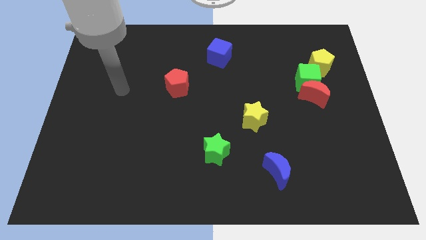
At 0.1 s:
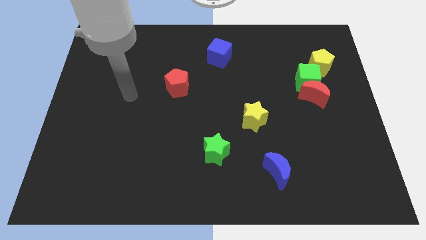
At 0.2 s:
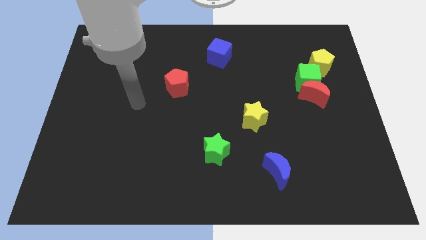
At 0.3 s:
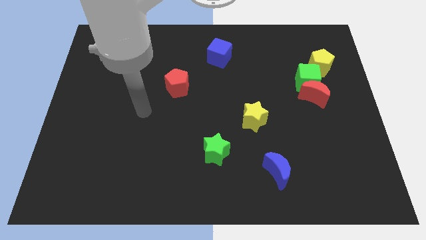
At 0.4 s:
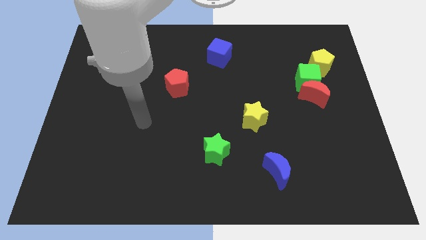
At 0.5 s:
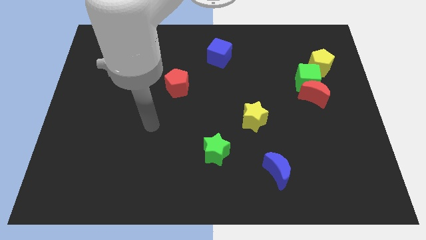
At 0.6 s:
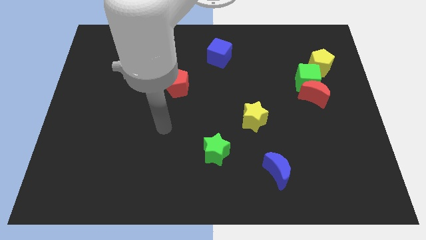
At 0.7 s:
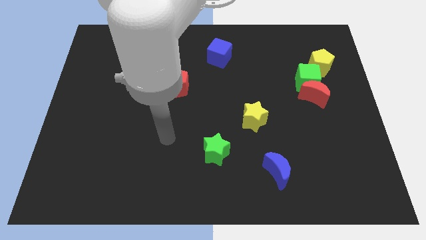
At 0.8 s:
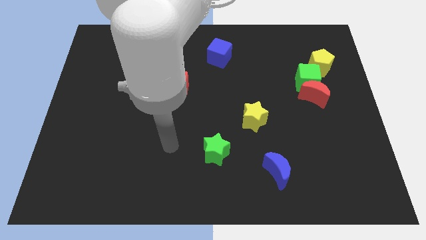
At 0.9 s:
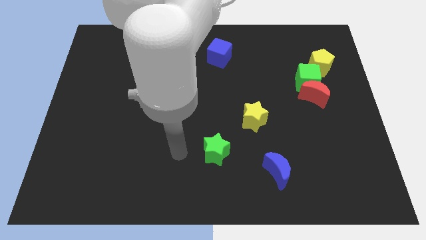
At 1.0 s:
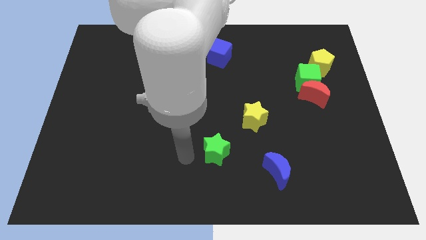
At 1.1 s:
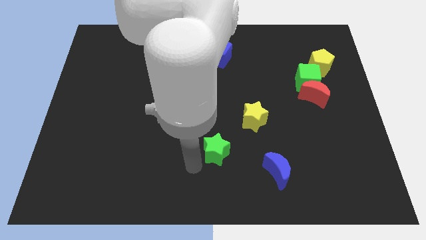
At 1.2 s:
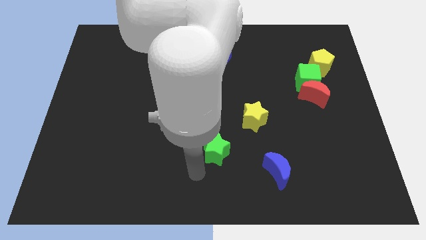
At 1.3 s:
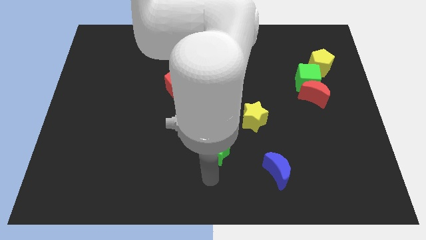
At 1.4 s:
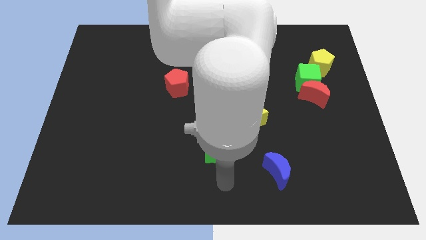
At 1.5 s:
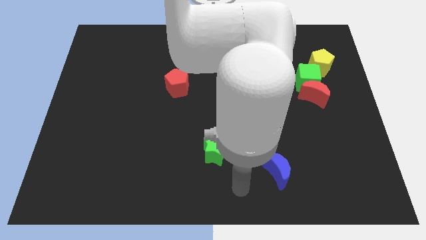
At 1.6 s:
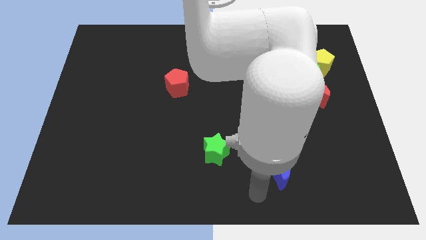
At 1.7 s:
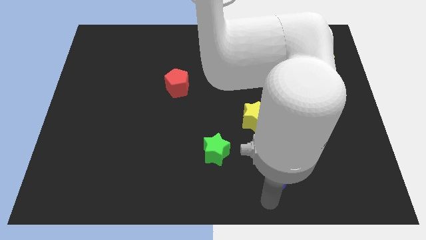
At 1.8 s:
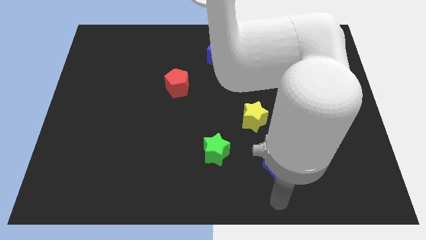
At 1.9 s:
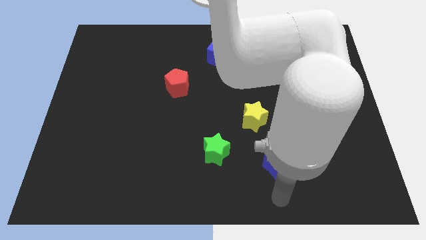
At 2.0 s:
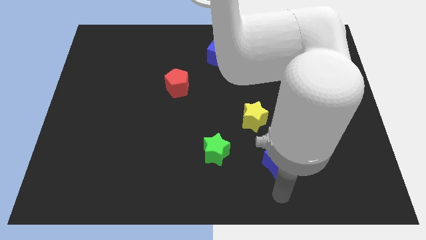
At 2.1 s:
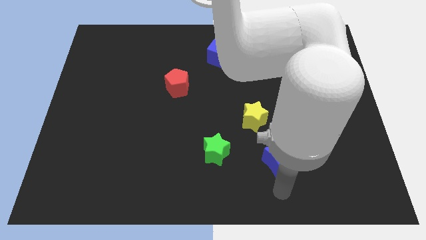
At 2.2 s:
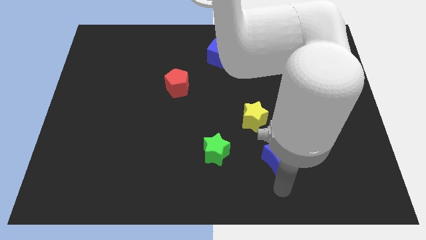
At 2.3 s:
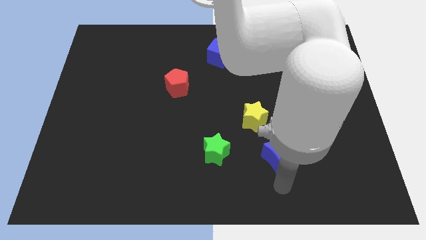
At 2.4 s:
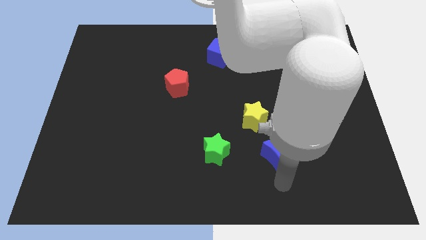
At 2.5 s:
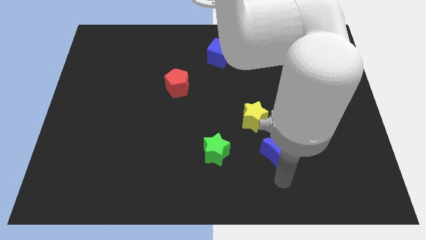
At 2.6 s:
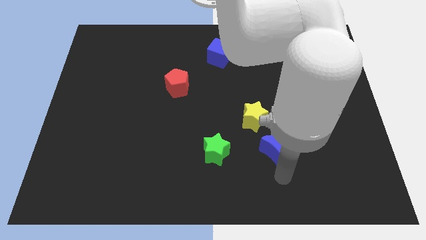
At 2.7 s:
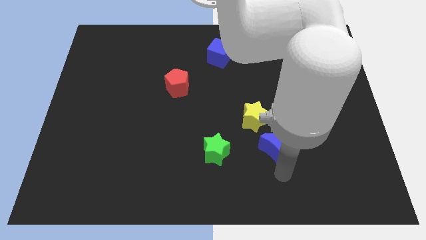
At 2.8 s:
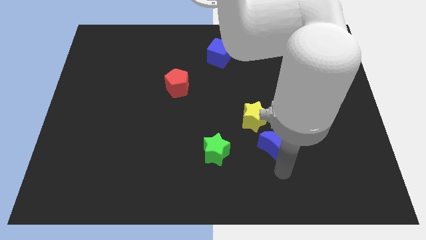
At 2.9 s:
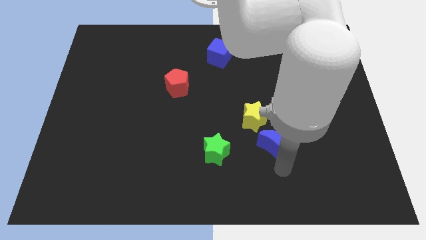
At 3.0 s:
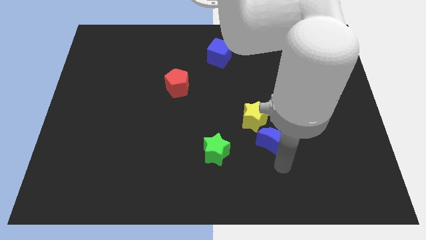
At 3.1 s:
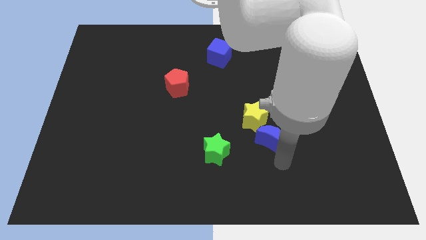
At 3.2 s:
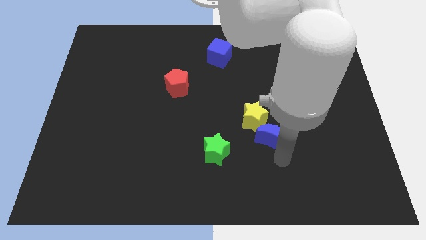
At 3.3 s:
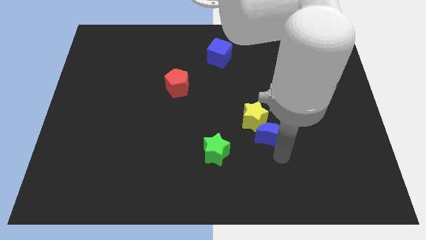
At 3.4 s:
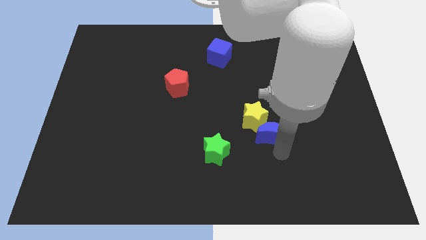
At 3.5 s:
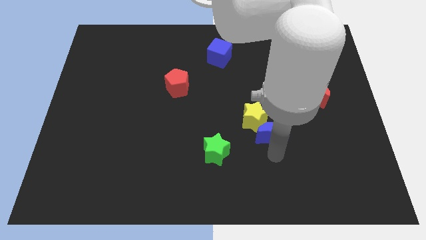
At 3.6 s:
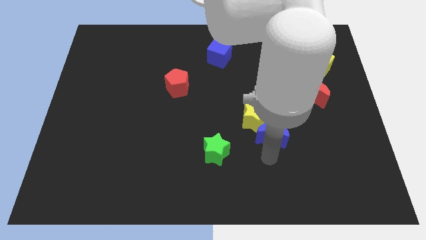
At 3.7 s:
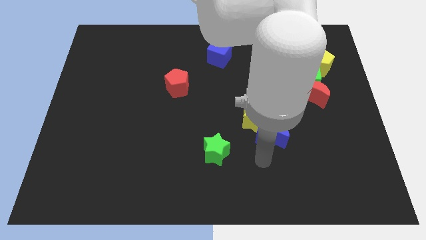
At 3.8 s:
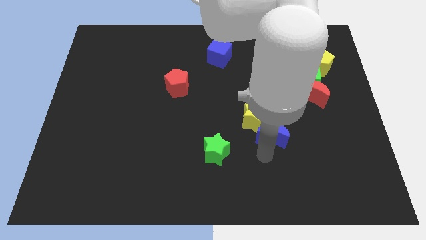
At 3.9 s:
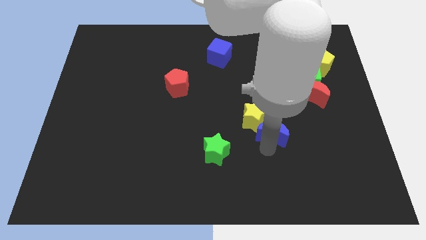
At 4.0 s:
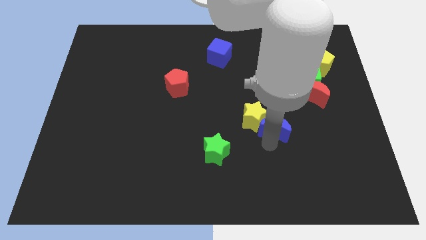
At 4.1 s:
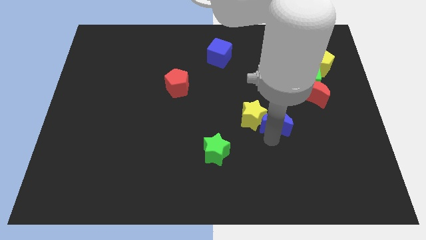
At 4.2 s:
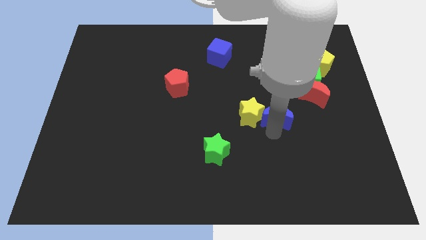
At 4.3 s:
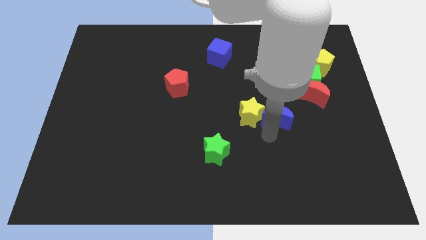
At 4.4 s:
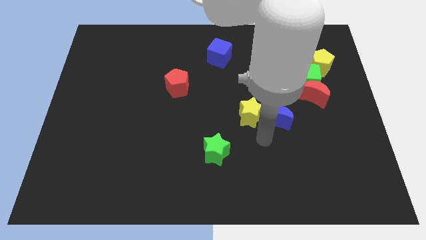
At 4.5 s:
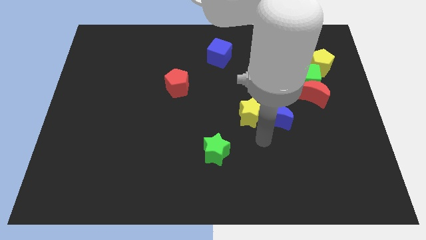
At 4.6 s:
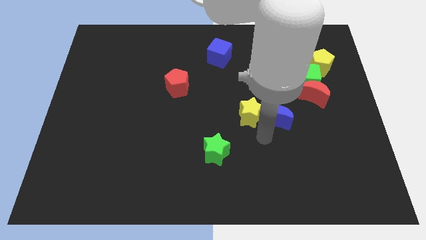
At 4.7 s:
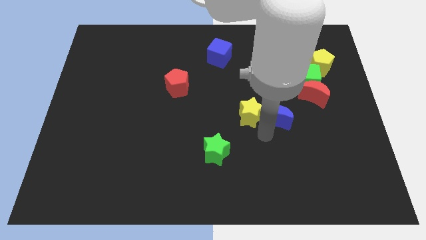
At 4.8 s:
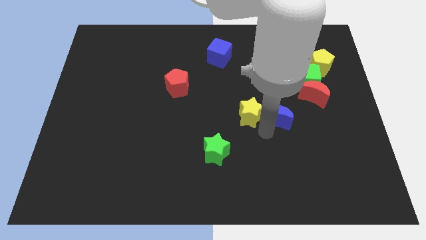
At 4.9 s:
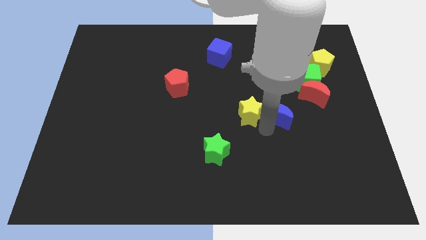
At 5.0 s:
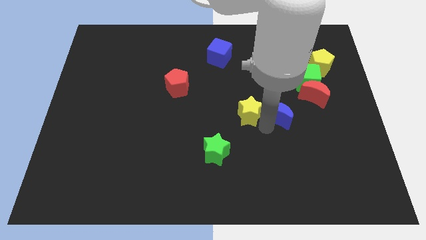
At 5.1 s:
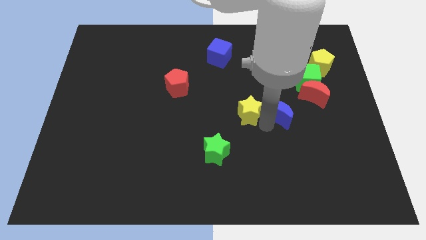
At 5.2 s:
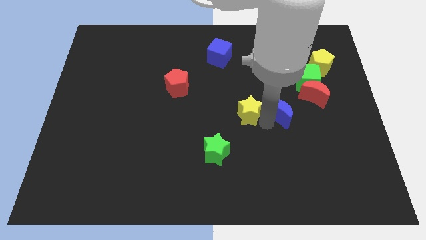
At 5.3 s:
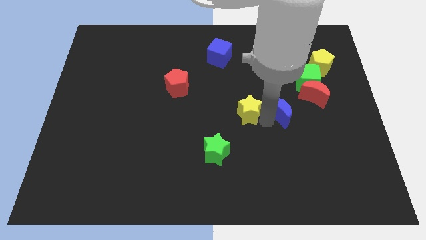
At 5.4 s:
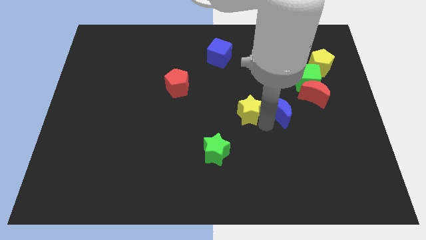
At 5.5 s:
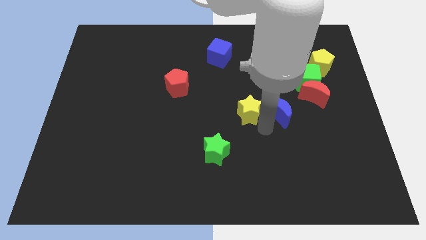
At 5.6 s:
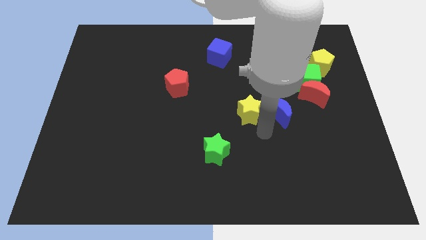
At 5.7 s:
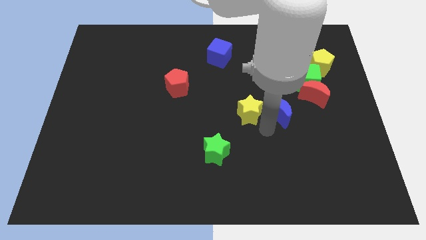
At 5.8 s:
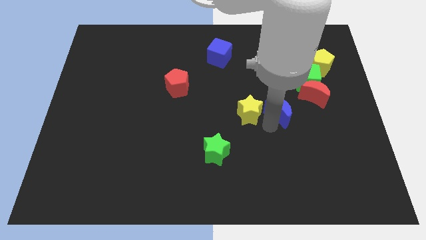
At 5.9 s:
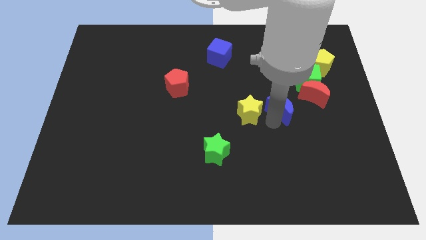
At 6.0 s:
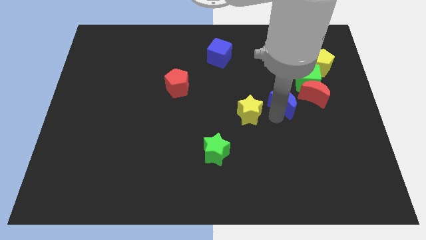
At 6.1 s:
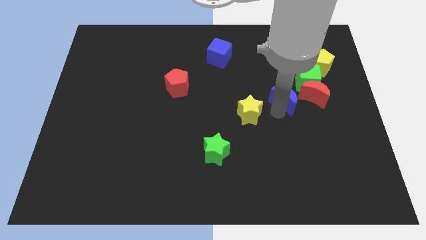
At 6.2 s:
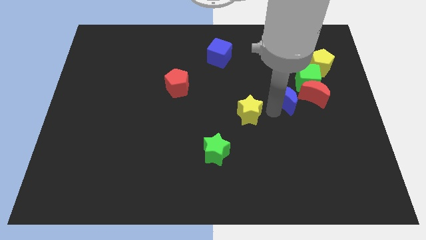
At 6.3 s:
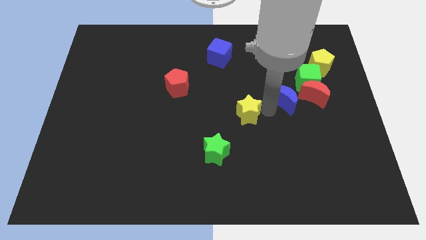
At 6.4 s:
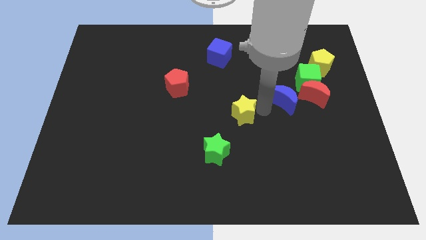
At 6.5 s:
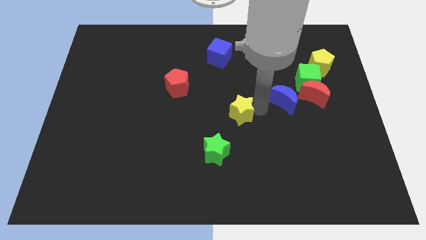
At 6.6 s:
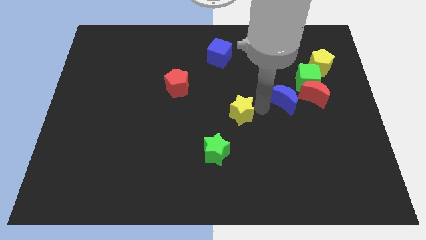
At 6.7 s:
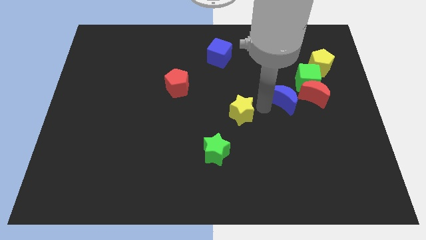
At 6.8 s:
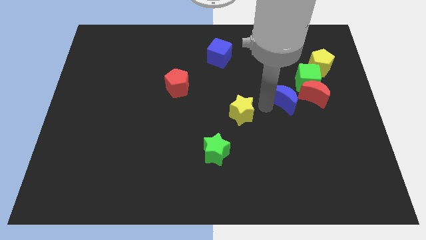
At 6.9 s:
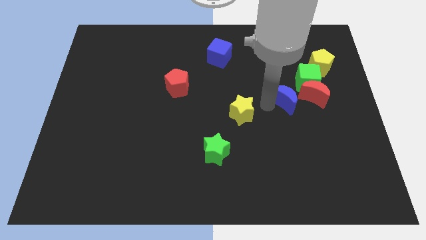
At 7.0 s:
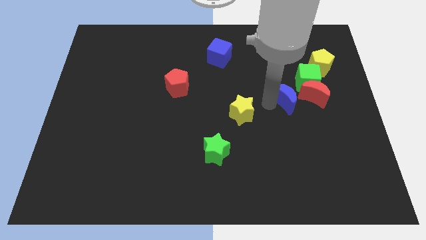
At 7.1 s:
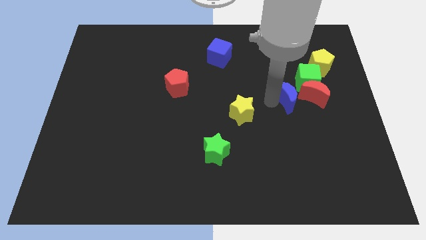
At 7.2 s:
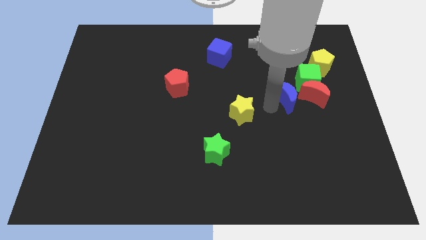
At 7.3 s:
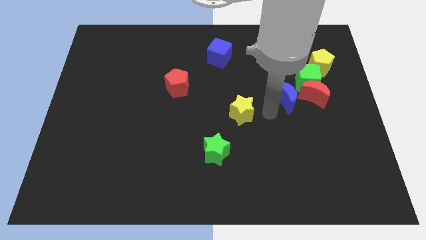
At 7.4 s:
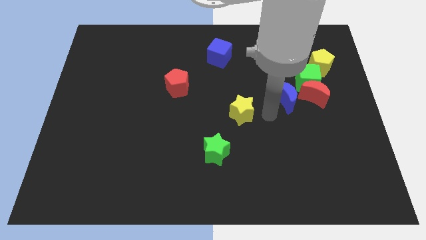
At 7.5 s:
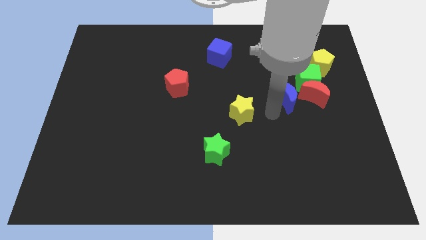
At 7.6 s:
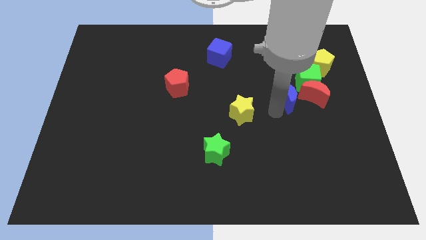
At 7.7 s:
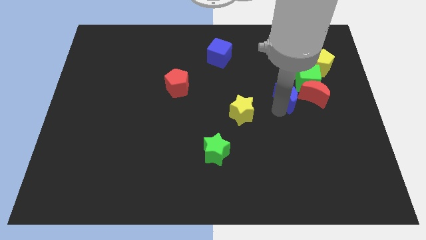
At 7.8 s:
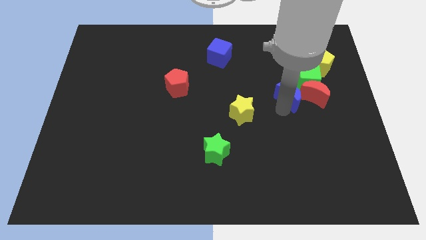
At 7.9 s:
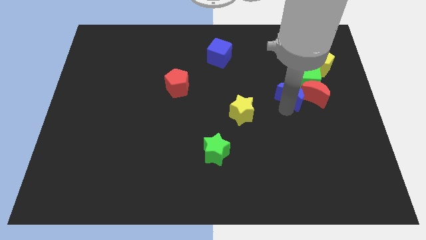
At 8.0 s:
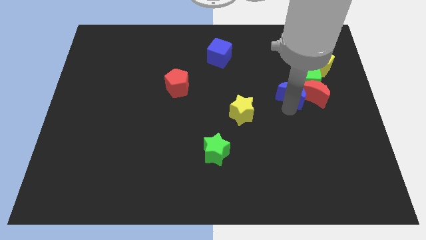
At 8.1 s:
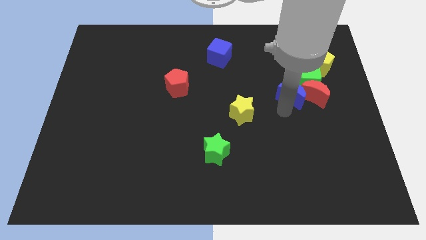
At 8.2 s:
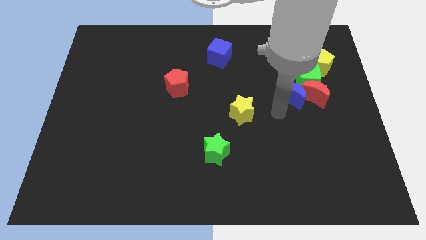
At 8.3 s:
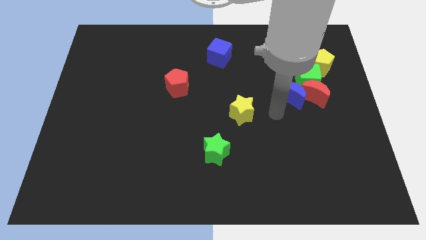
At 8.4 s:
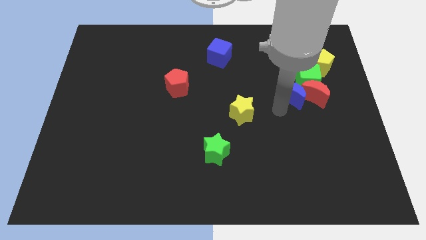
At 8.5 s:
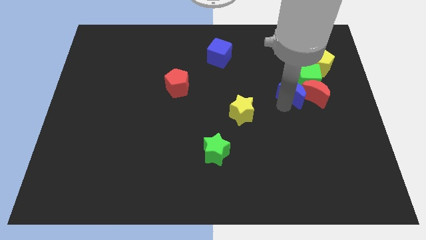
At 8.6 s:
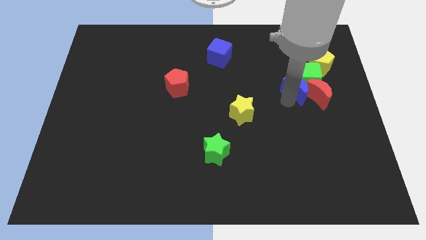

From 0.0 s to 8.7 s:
slide the blue moon towards the green cube
